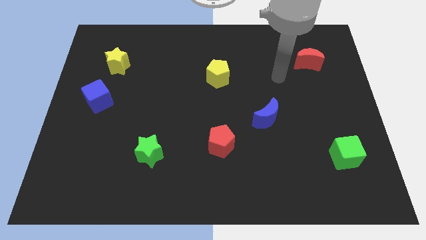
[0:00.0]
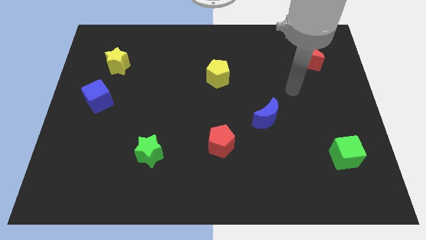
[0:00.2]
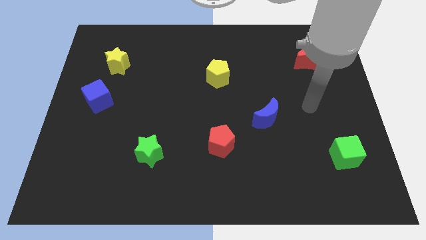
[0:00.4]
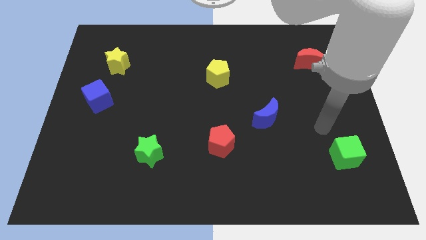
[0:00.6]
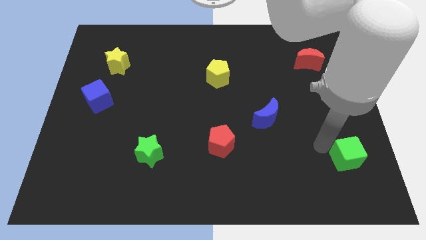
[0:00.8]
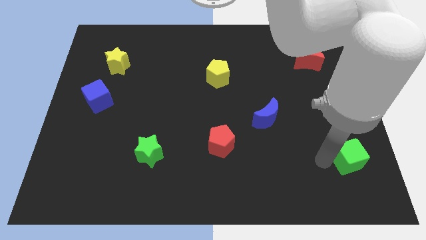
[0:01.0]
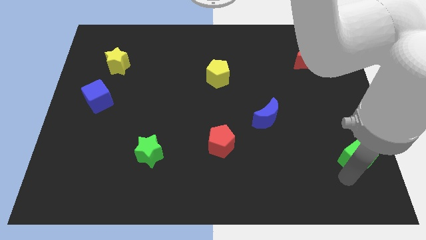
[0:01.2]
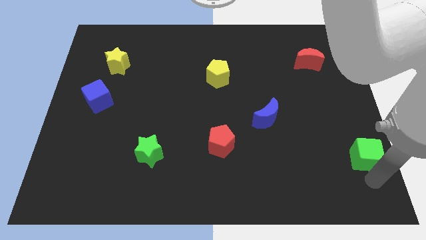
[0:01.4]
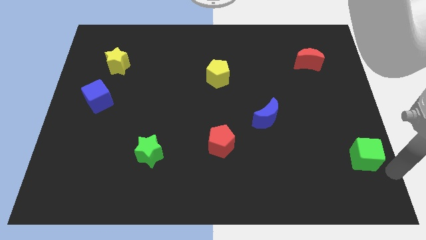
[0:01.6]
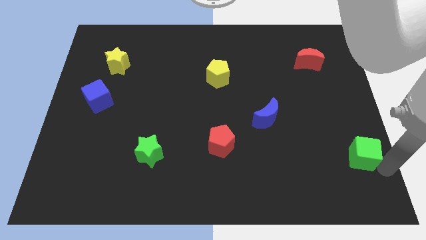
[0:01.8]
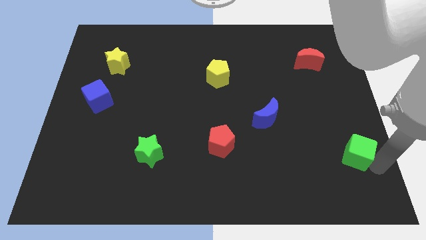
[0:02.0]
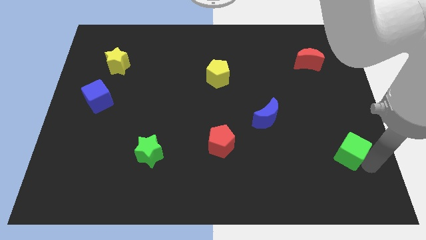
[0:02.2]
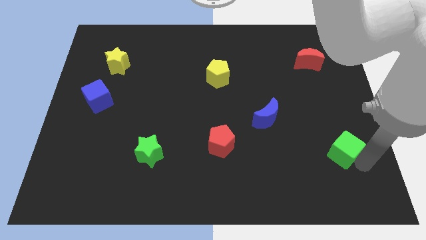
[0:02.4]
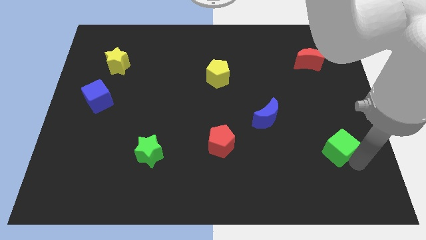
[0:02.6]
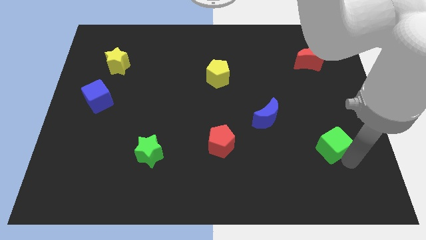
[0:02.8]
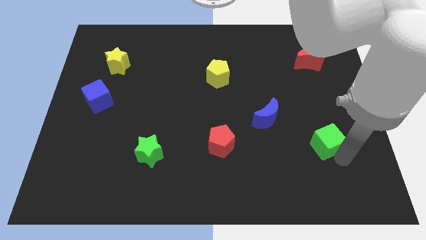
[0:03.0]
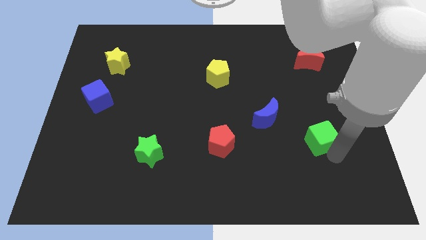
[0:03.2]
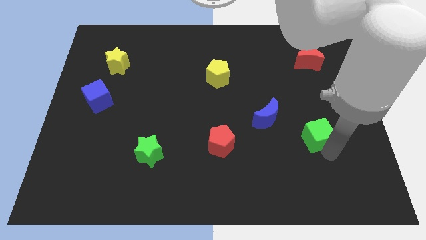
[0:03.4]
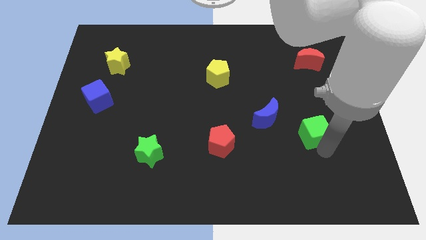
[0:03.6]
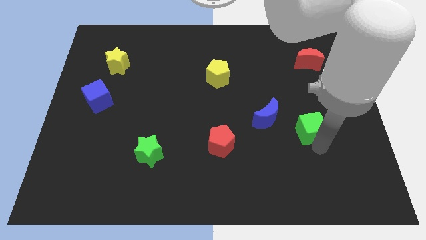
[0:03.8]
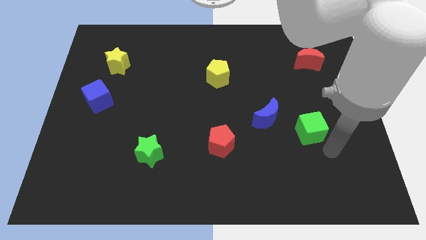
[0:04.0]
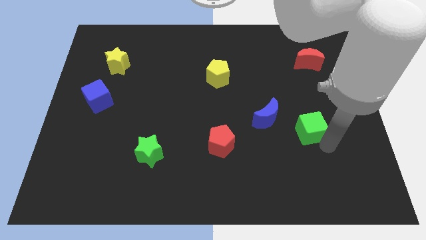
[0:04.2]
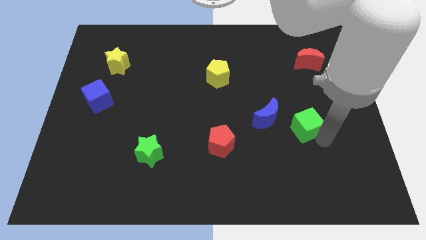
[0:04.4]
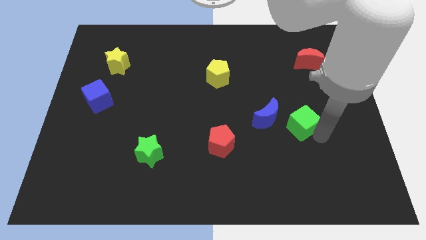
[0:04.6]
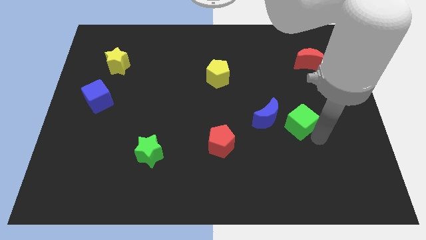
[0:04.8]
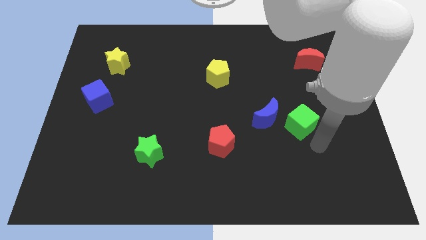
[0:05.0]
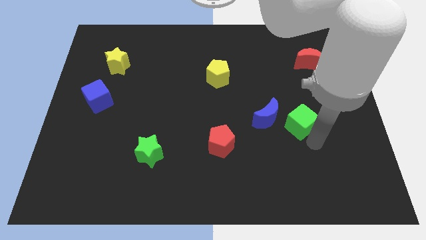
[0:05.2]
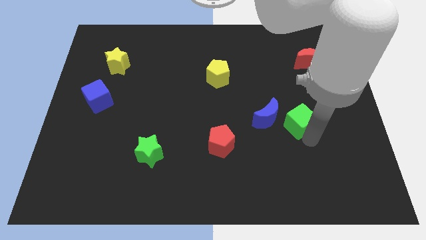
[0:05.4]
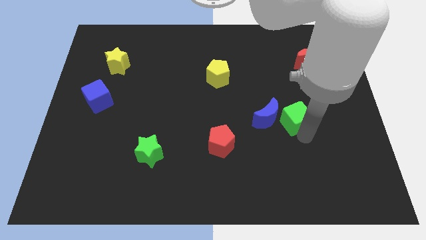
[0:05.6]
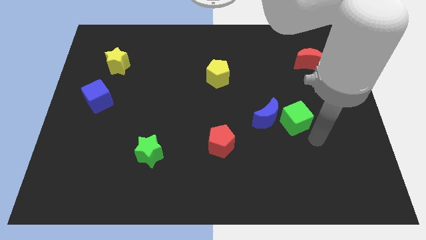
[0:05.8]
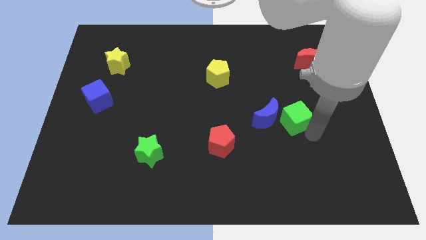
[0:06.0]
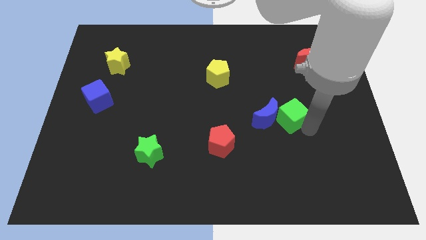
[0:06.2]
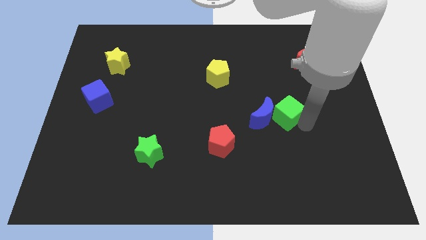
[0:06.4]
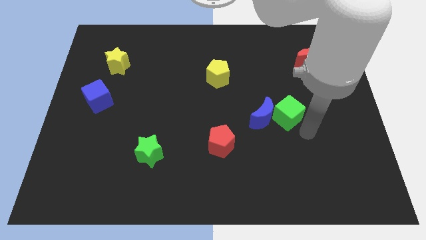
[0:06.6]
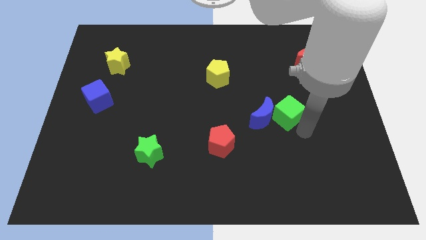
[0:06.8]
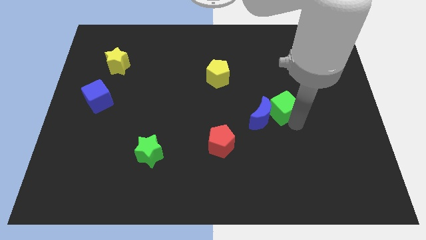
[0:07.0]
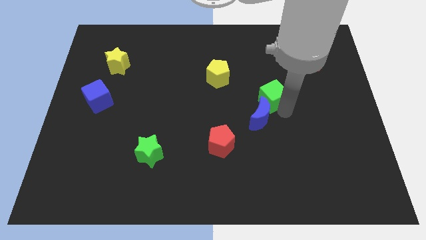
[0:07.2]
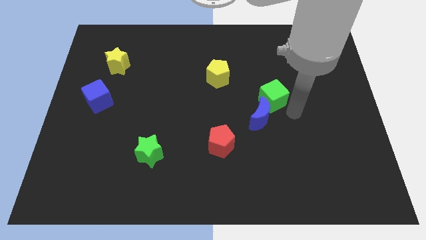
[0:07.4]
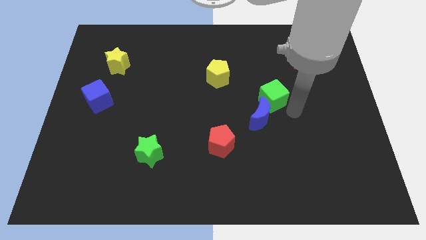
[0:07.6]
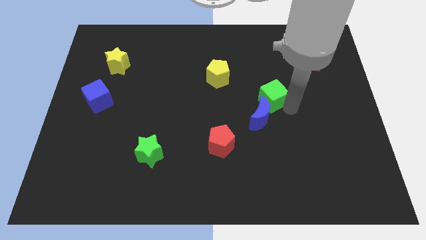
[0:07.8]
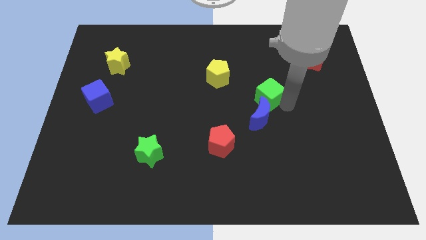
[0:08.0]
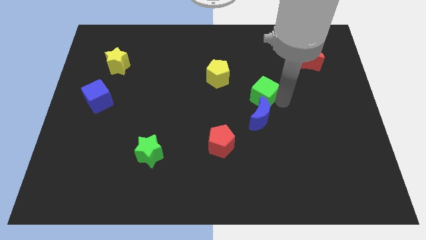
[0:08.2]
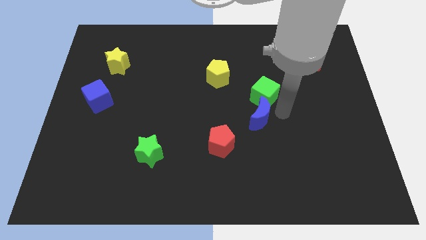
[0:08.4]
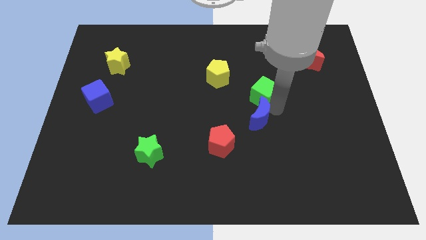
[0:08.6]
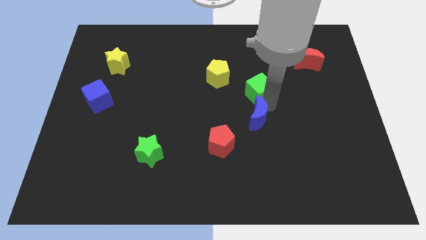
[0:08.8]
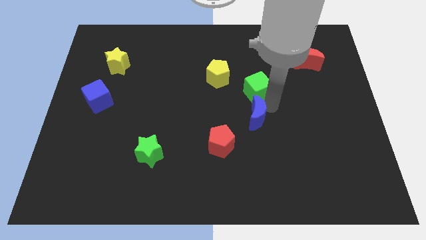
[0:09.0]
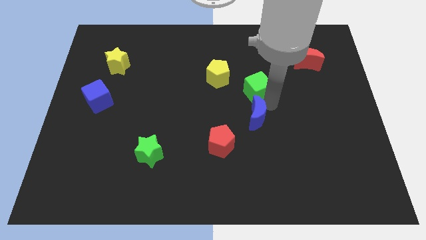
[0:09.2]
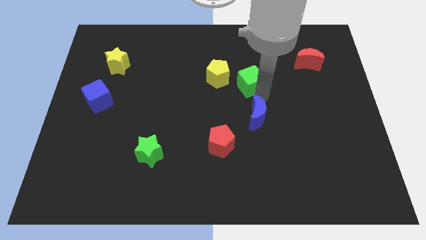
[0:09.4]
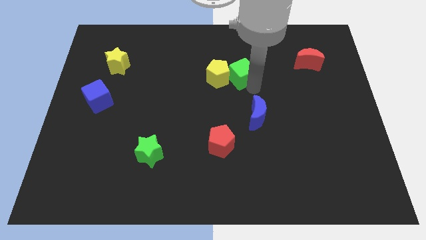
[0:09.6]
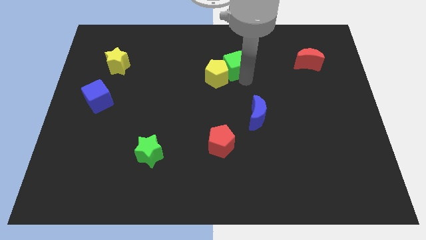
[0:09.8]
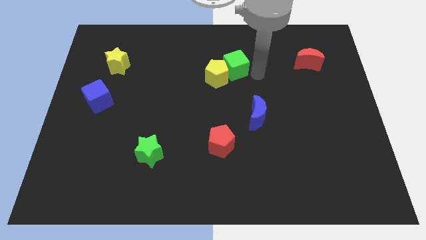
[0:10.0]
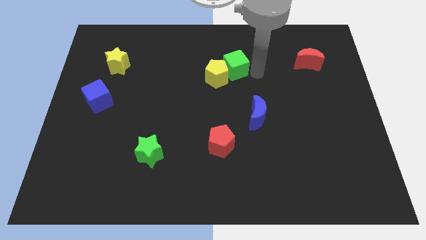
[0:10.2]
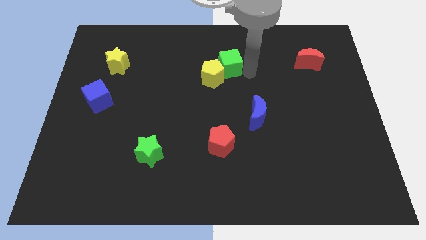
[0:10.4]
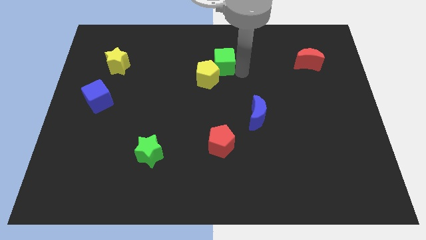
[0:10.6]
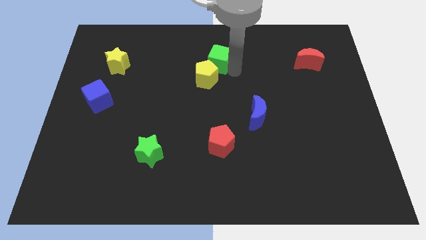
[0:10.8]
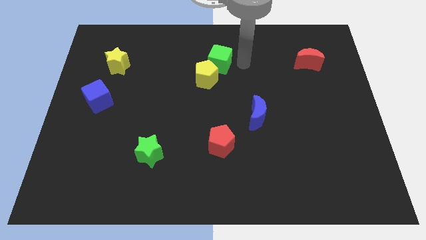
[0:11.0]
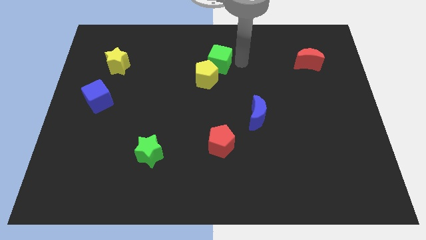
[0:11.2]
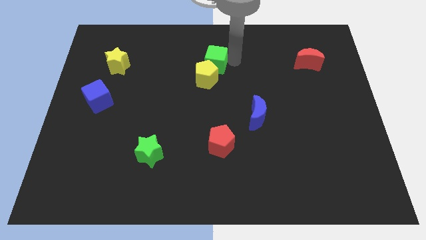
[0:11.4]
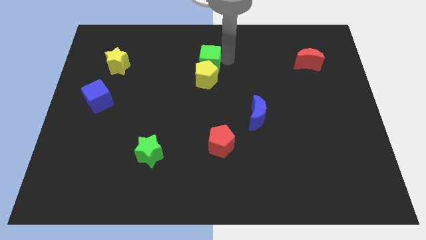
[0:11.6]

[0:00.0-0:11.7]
move the green cube to the top left side of the yellow pentagon
